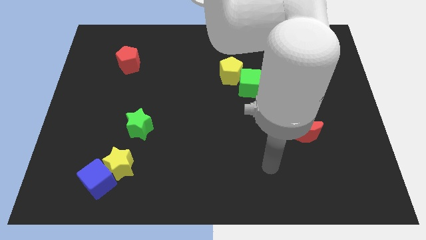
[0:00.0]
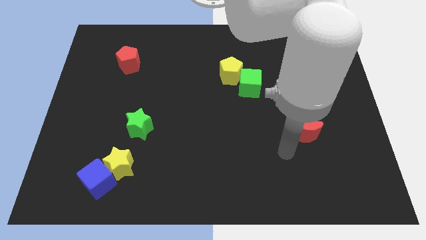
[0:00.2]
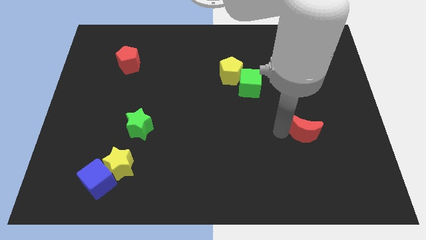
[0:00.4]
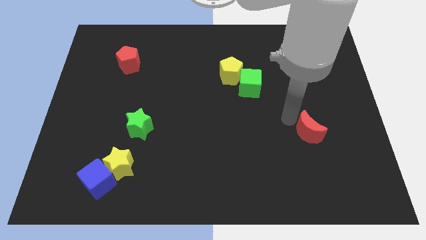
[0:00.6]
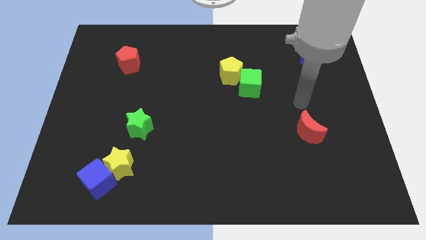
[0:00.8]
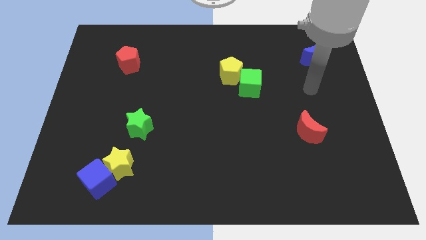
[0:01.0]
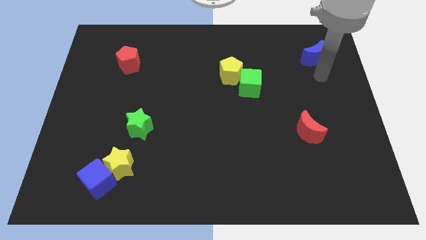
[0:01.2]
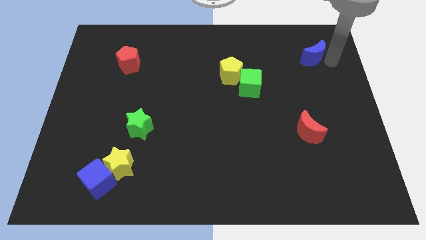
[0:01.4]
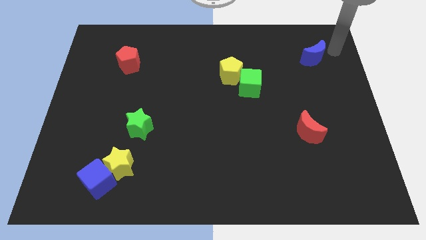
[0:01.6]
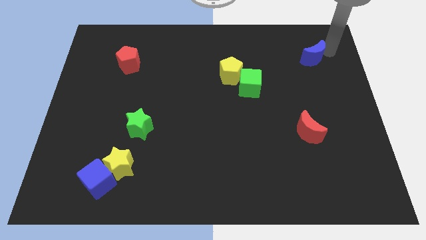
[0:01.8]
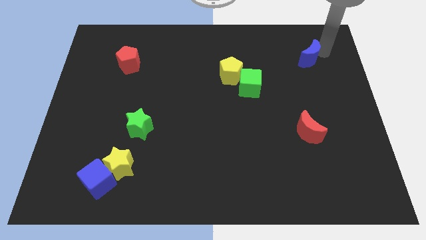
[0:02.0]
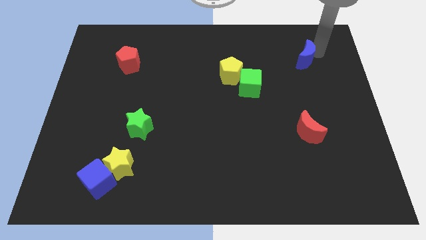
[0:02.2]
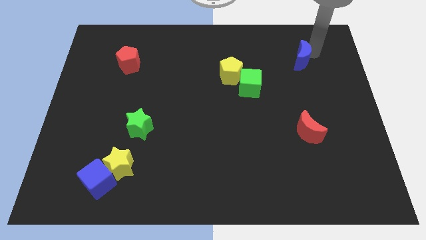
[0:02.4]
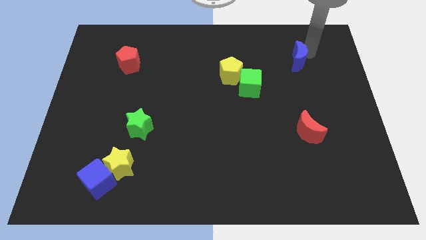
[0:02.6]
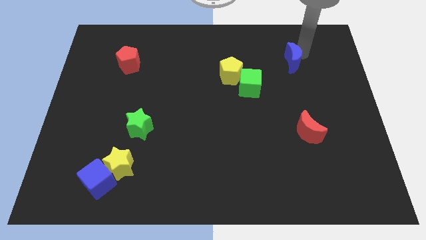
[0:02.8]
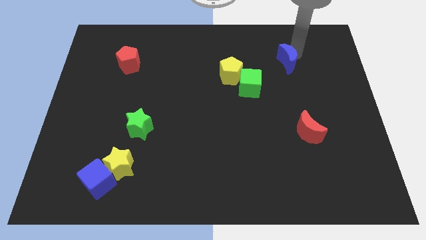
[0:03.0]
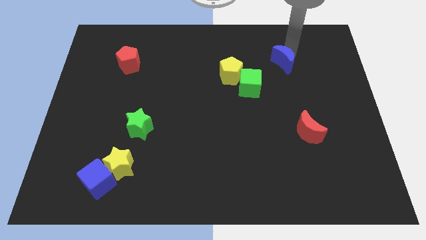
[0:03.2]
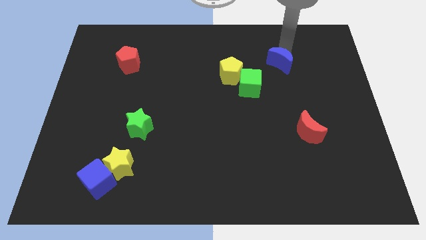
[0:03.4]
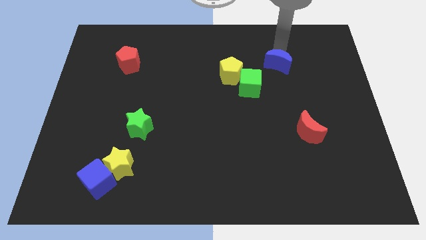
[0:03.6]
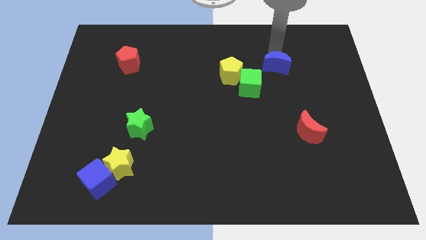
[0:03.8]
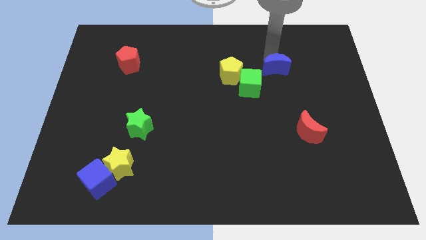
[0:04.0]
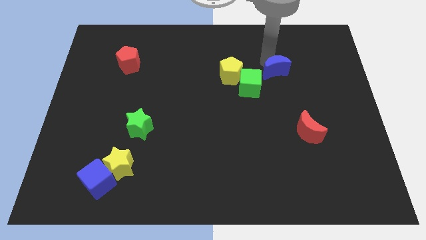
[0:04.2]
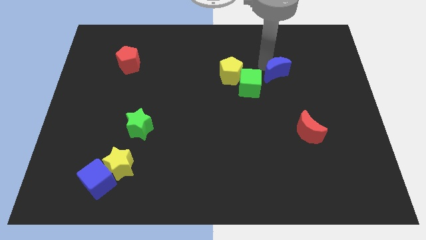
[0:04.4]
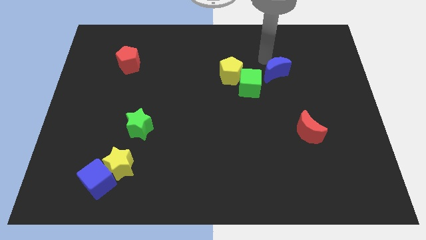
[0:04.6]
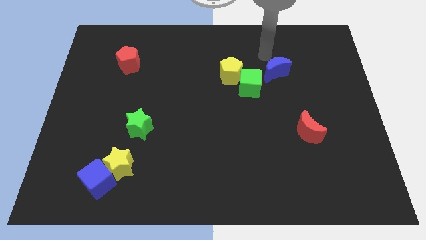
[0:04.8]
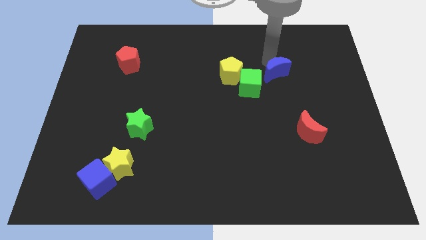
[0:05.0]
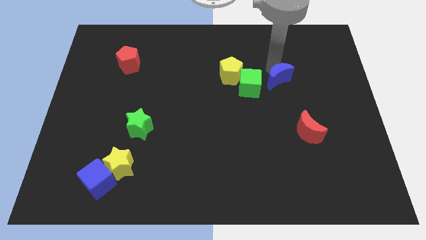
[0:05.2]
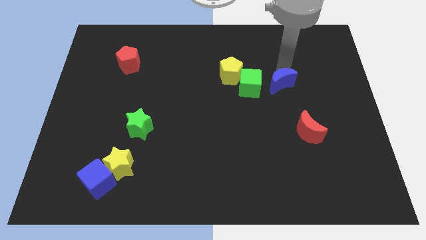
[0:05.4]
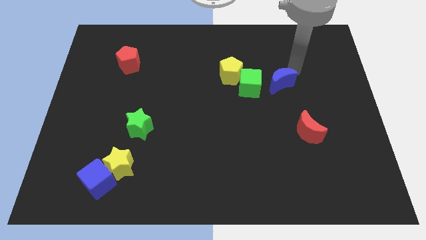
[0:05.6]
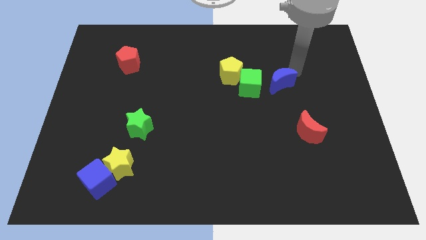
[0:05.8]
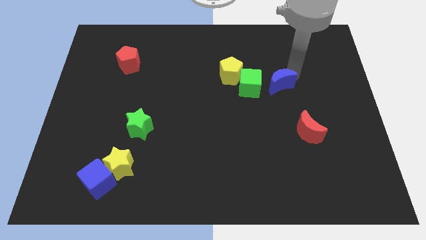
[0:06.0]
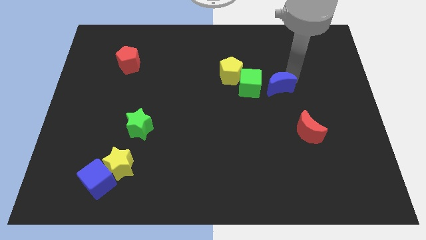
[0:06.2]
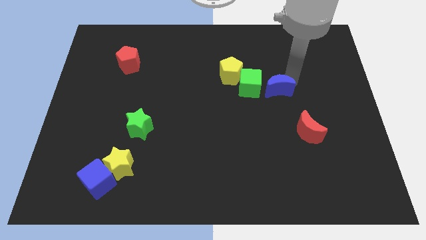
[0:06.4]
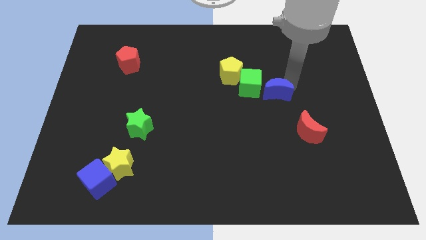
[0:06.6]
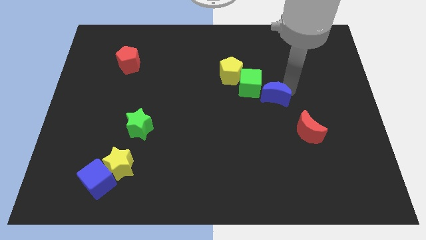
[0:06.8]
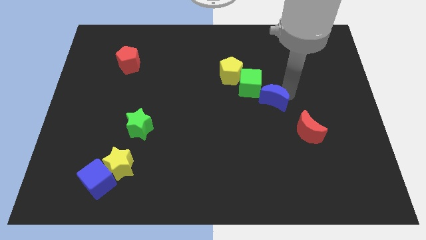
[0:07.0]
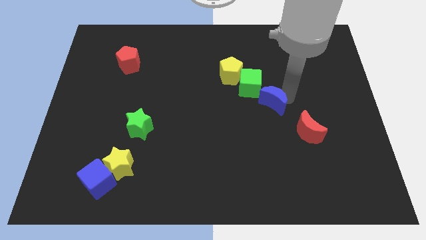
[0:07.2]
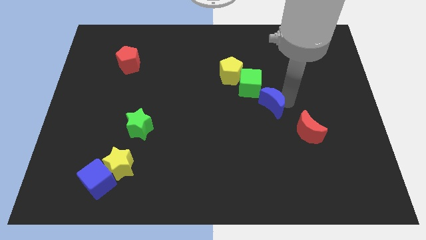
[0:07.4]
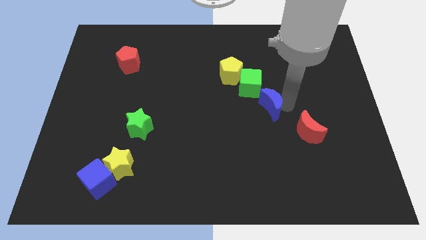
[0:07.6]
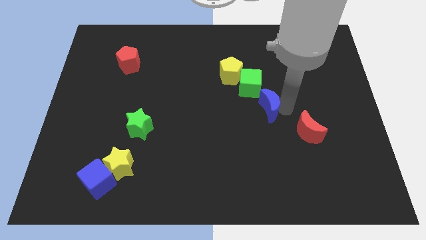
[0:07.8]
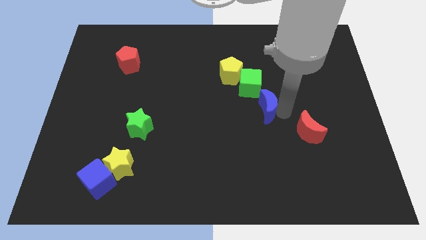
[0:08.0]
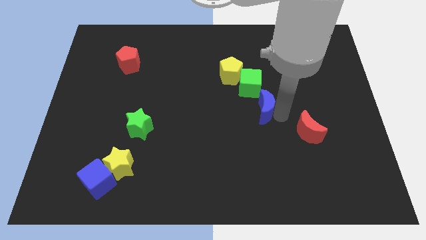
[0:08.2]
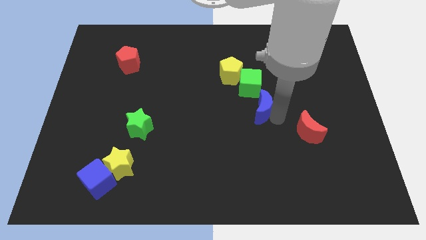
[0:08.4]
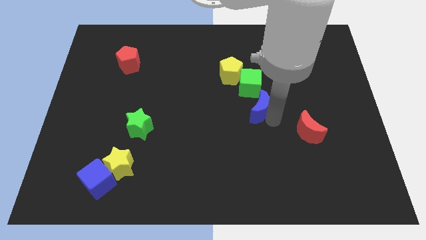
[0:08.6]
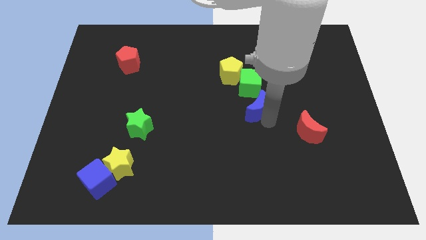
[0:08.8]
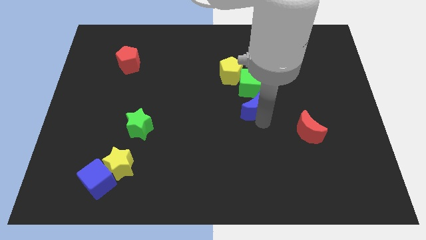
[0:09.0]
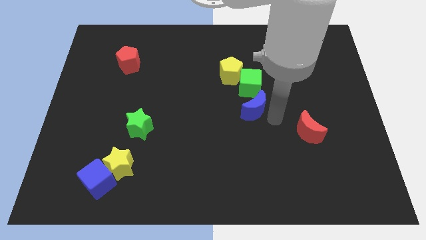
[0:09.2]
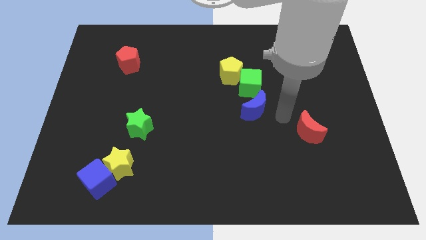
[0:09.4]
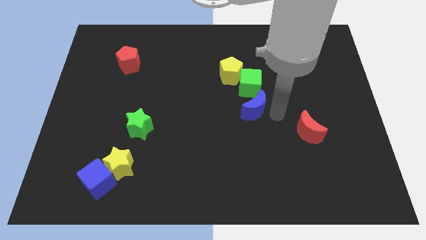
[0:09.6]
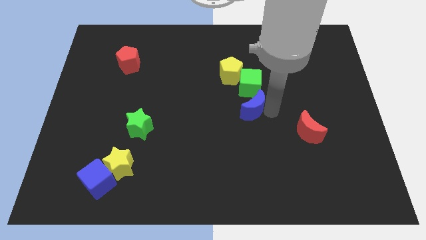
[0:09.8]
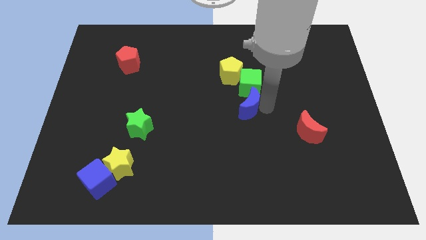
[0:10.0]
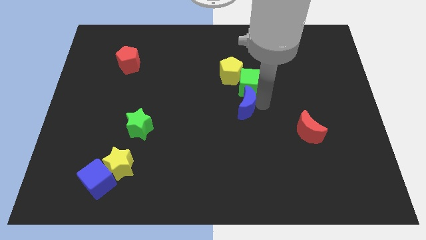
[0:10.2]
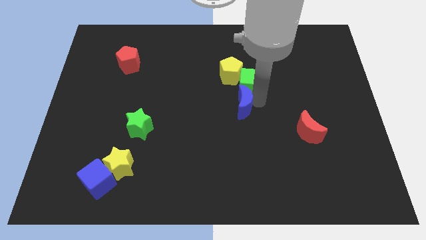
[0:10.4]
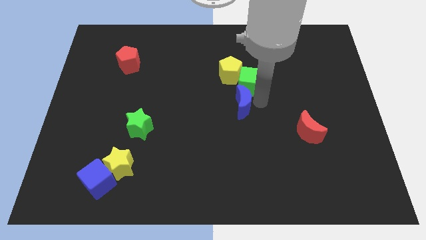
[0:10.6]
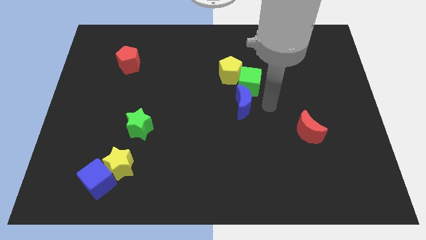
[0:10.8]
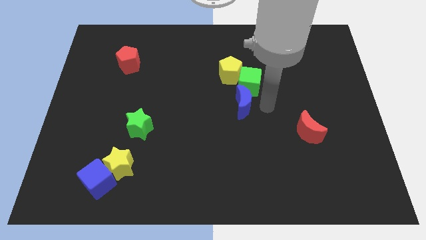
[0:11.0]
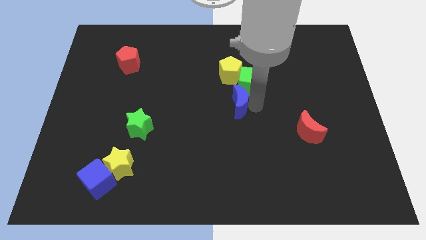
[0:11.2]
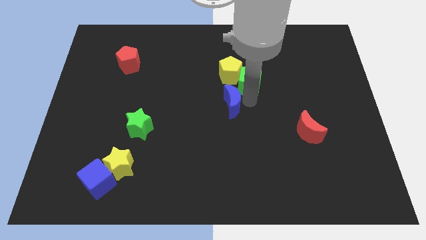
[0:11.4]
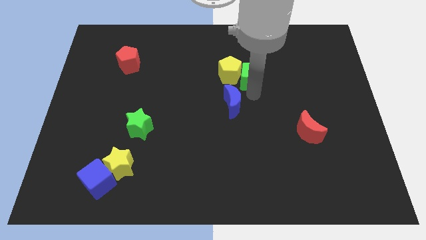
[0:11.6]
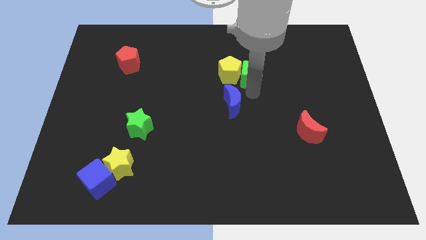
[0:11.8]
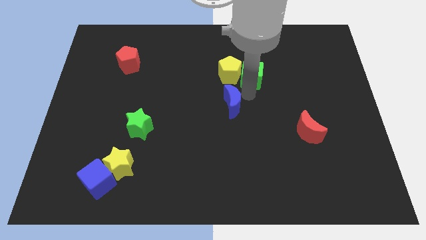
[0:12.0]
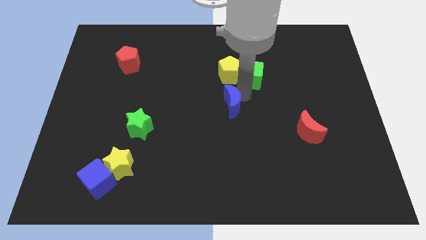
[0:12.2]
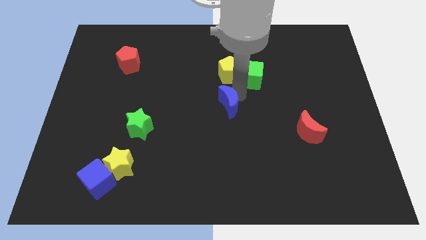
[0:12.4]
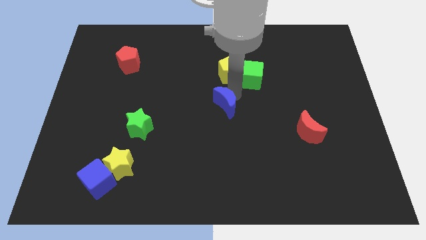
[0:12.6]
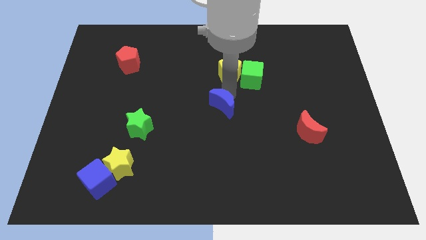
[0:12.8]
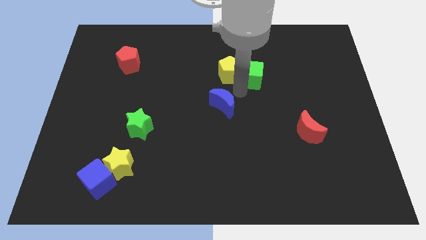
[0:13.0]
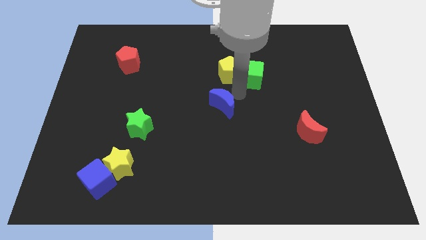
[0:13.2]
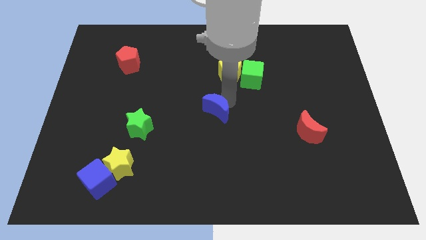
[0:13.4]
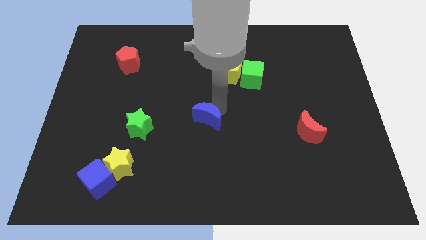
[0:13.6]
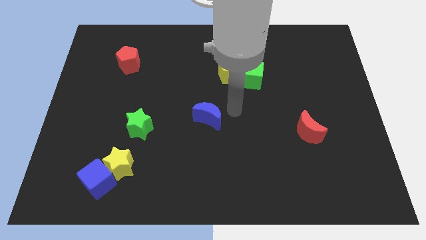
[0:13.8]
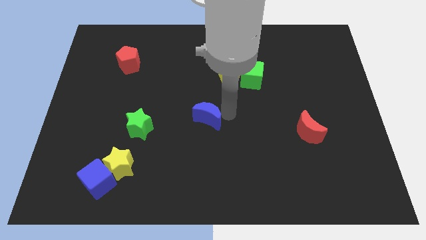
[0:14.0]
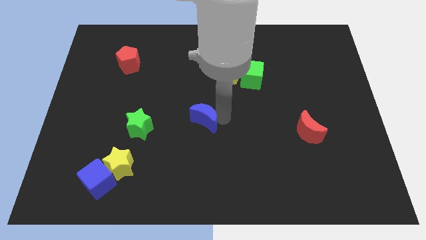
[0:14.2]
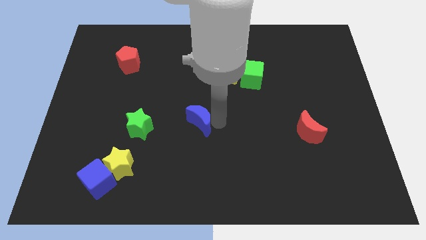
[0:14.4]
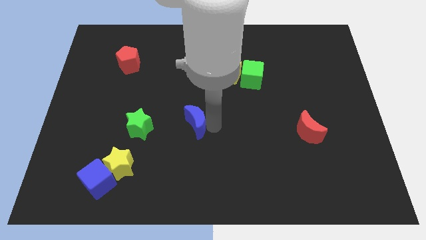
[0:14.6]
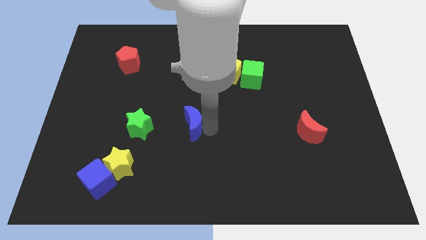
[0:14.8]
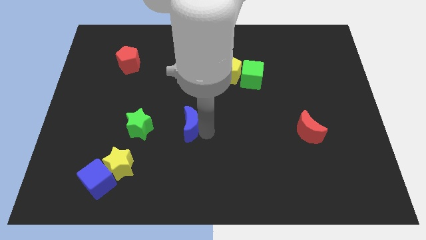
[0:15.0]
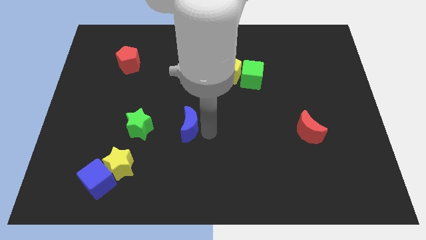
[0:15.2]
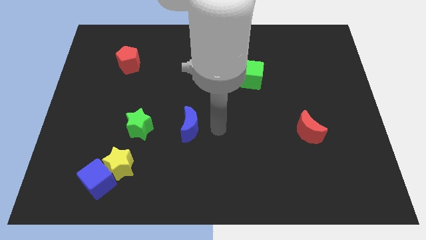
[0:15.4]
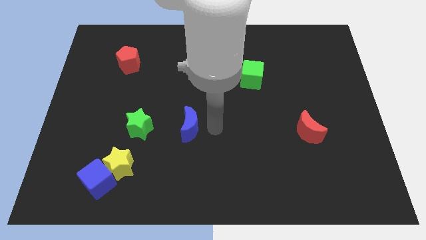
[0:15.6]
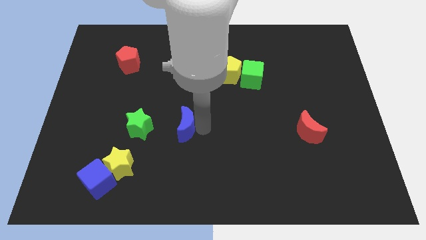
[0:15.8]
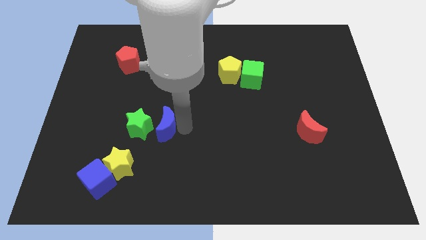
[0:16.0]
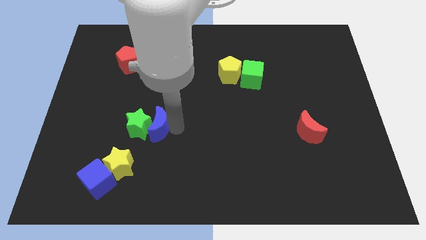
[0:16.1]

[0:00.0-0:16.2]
push the blue moon towards the green star
